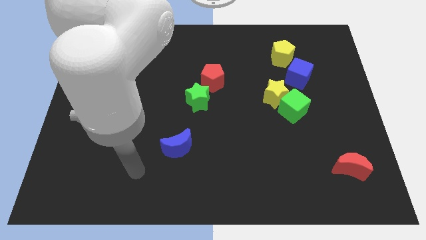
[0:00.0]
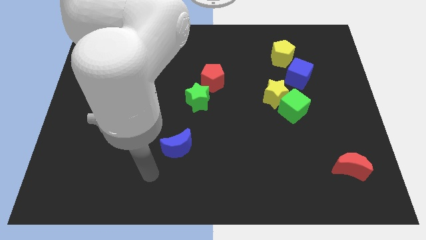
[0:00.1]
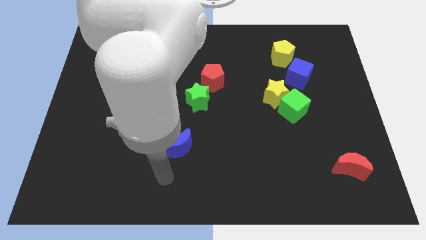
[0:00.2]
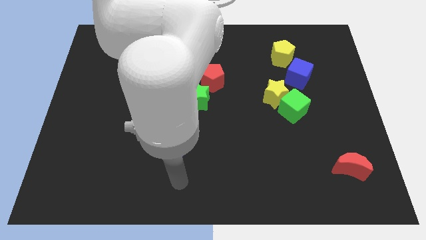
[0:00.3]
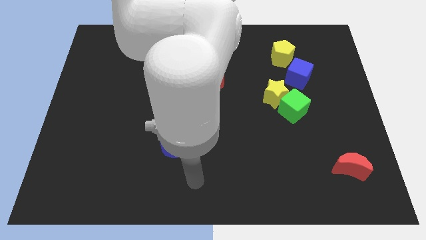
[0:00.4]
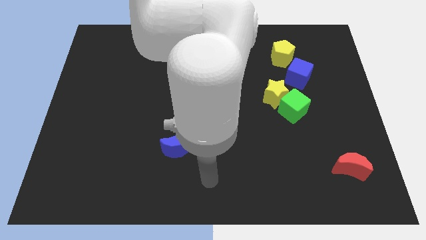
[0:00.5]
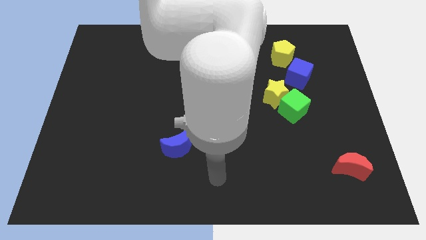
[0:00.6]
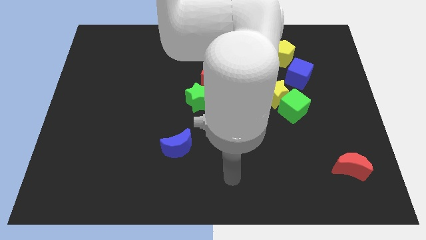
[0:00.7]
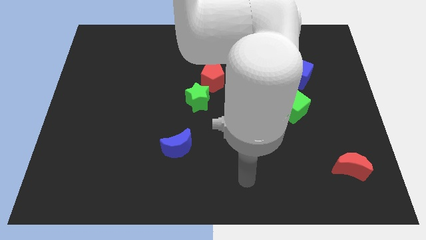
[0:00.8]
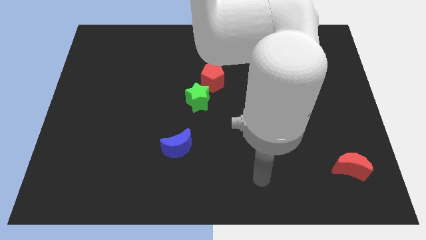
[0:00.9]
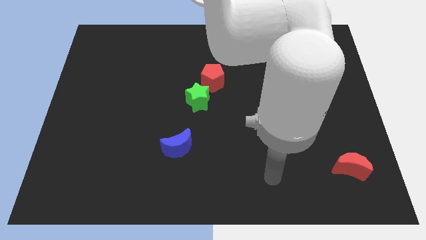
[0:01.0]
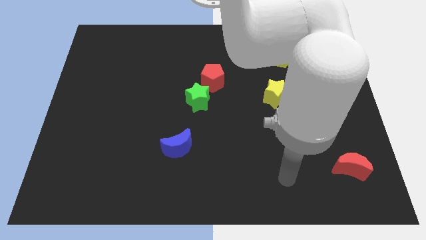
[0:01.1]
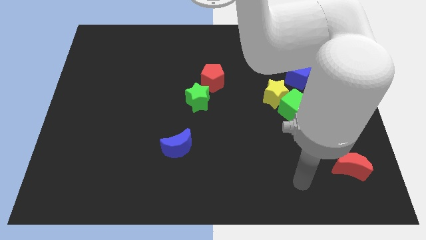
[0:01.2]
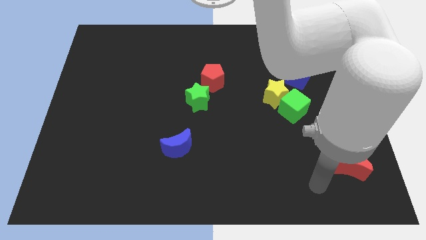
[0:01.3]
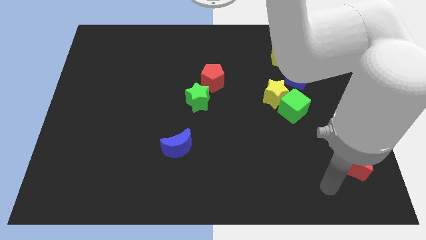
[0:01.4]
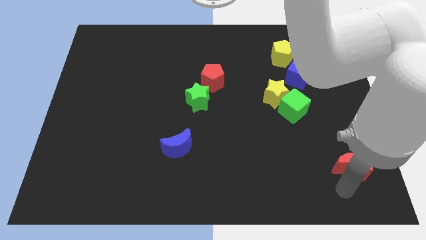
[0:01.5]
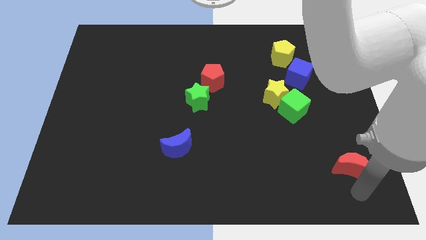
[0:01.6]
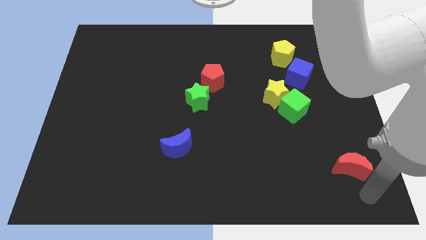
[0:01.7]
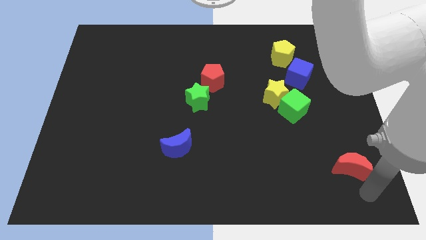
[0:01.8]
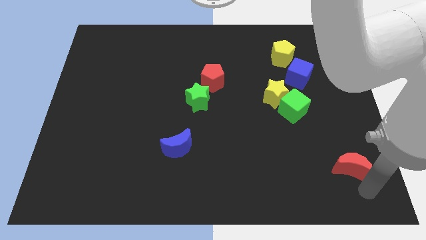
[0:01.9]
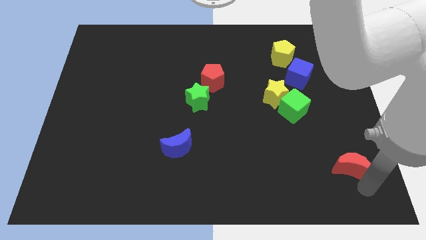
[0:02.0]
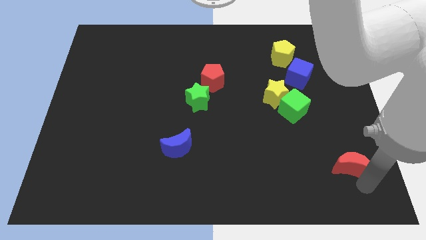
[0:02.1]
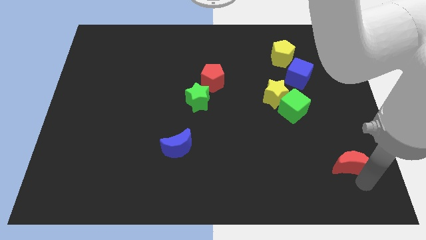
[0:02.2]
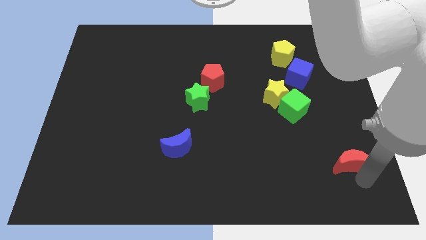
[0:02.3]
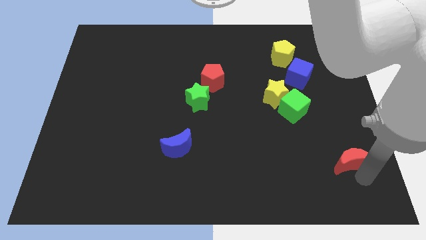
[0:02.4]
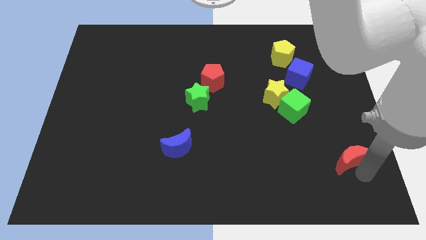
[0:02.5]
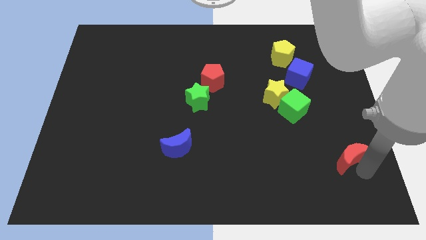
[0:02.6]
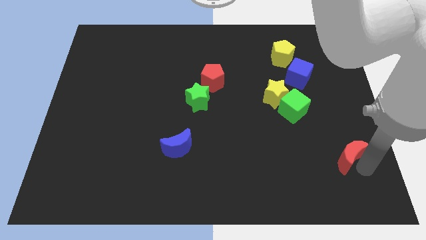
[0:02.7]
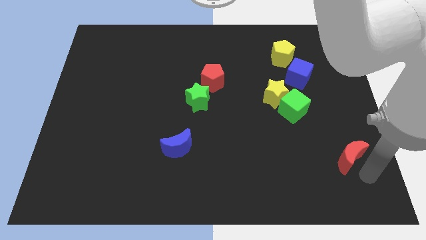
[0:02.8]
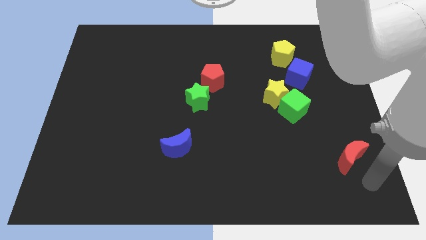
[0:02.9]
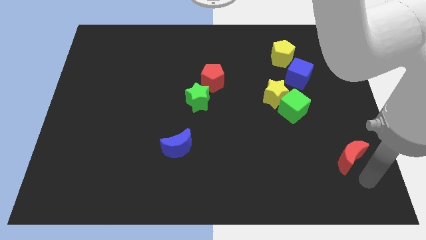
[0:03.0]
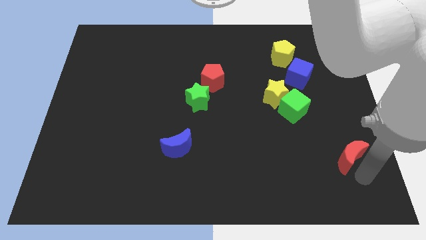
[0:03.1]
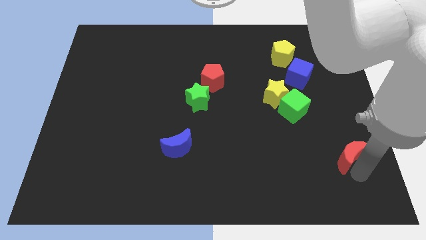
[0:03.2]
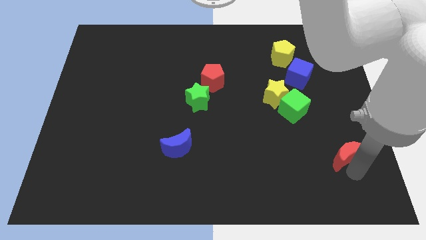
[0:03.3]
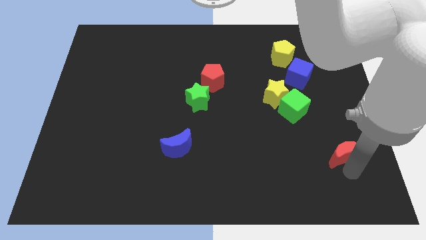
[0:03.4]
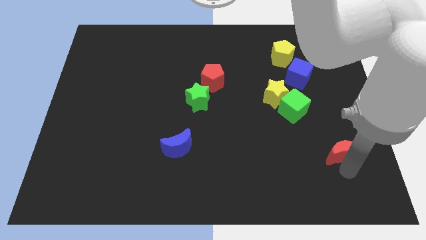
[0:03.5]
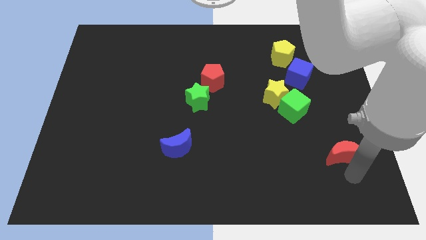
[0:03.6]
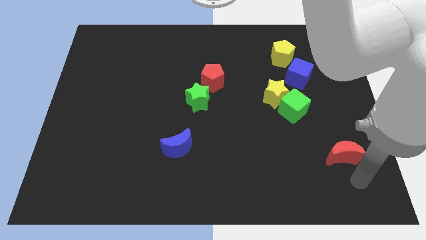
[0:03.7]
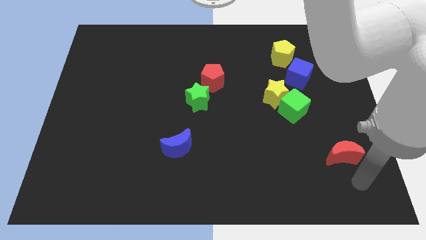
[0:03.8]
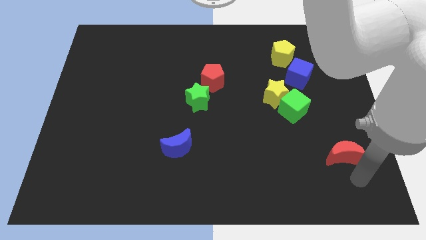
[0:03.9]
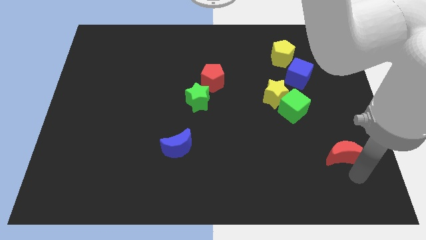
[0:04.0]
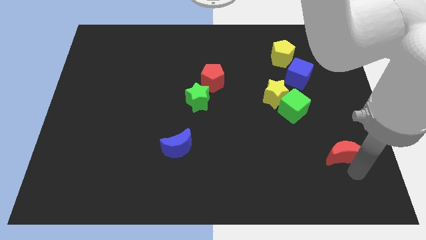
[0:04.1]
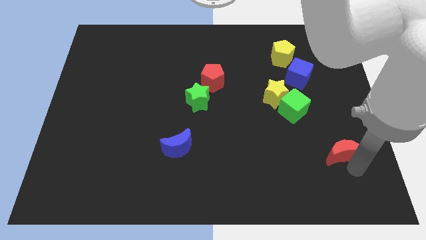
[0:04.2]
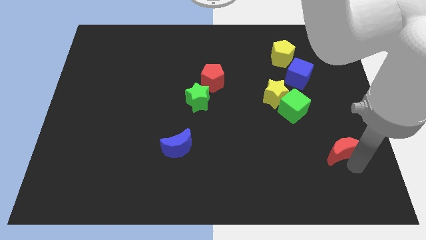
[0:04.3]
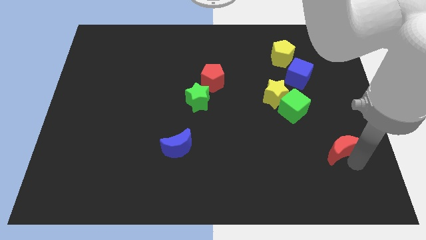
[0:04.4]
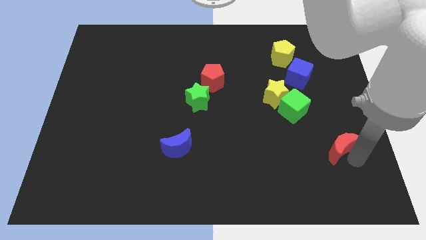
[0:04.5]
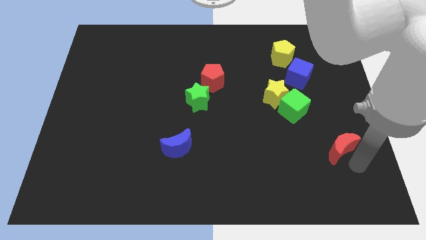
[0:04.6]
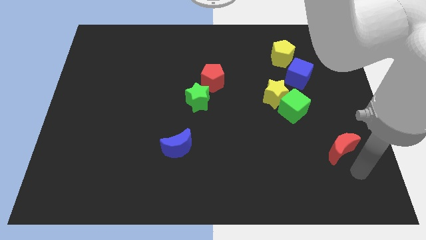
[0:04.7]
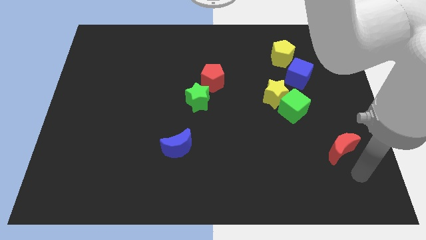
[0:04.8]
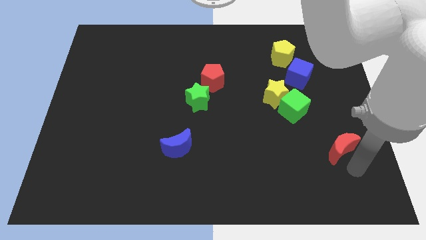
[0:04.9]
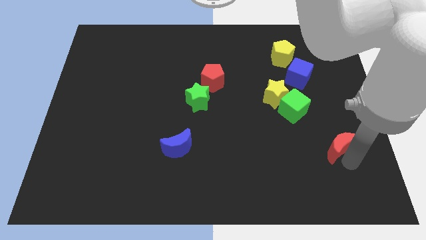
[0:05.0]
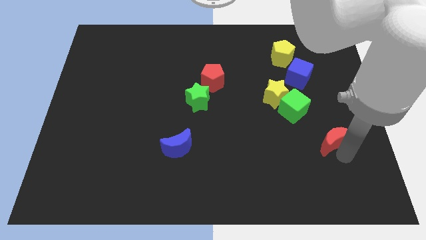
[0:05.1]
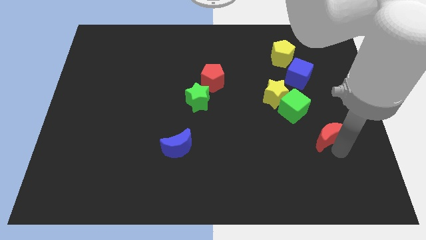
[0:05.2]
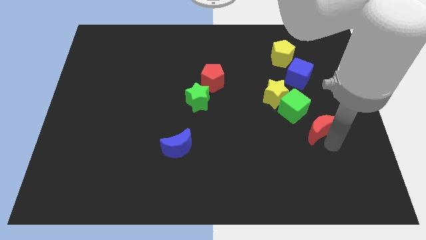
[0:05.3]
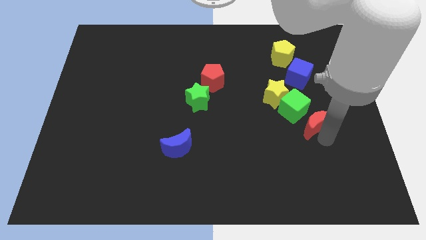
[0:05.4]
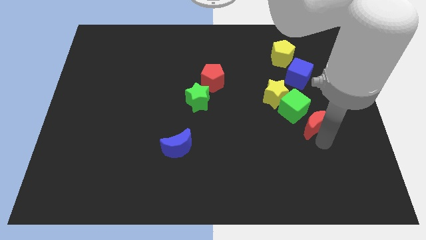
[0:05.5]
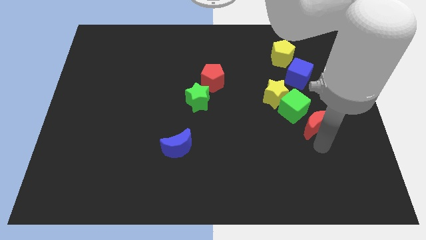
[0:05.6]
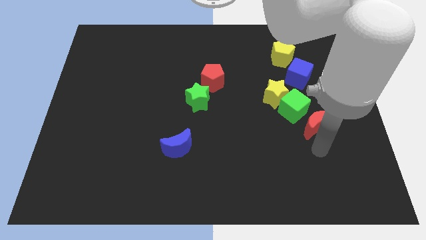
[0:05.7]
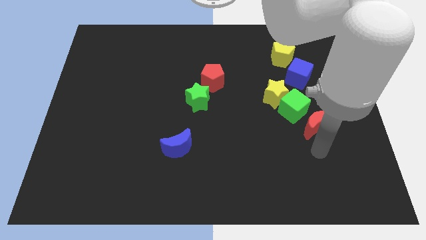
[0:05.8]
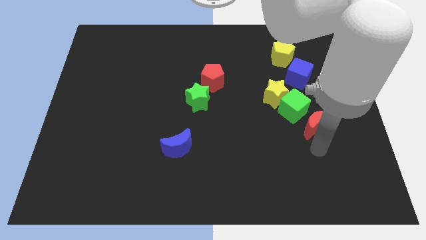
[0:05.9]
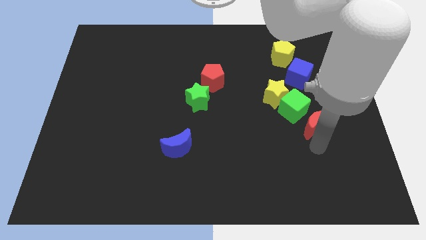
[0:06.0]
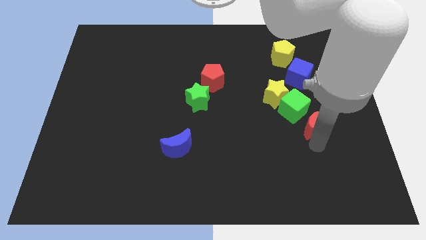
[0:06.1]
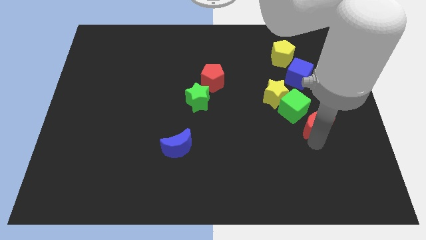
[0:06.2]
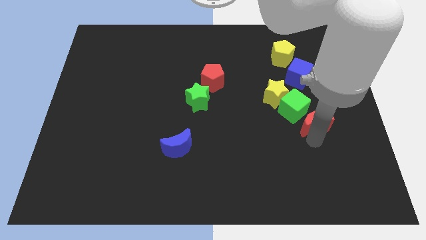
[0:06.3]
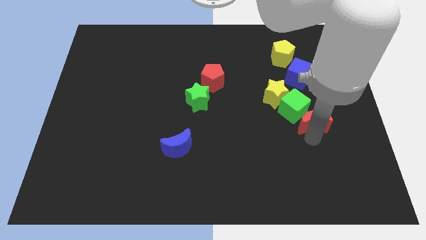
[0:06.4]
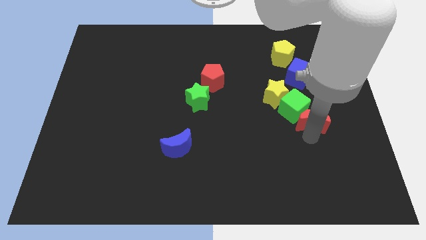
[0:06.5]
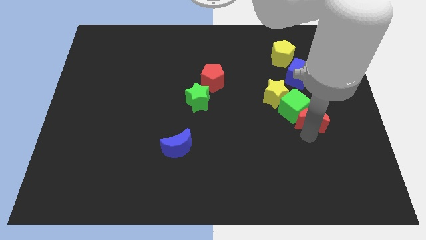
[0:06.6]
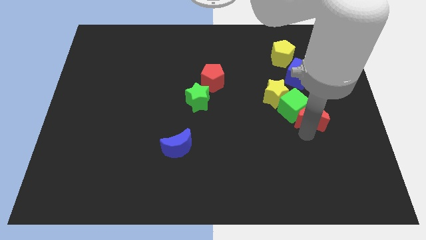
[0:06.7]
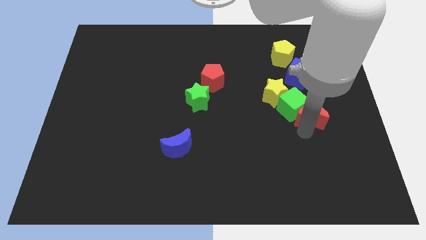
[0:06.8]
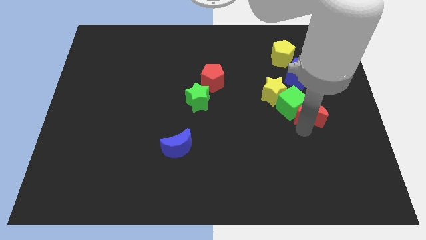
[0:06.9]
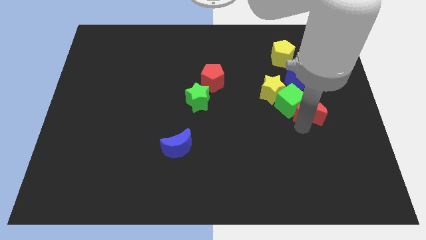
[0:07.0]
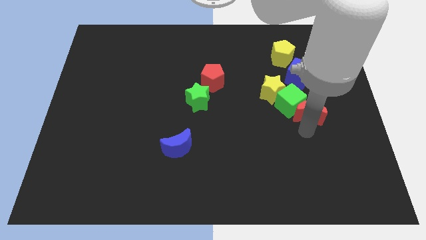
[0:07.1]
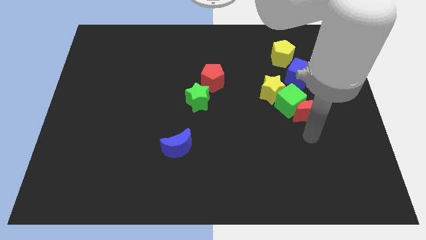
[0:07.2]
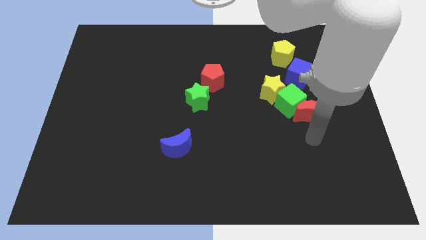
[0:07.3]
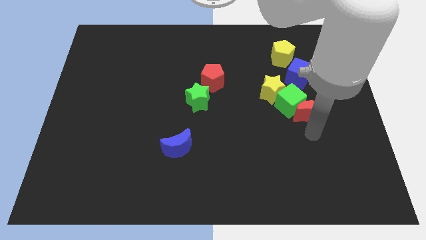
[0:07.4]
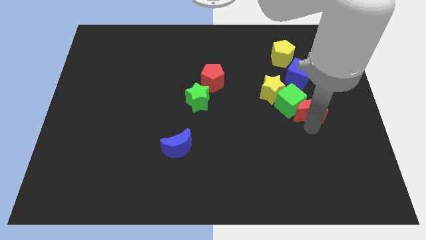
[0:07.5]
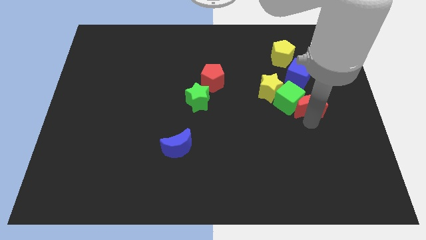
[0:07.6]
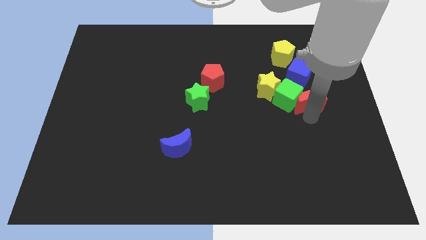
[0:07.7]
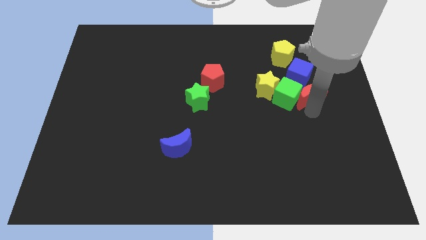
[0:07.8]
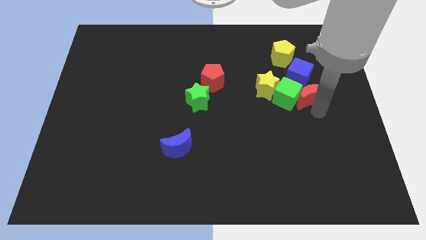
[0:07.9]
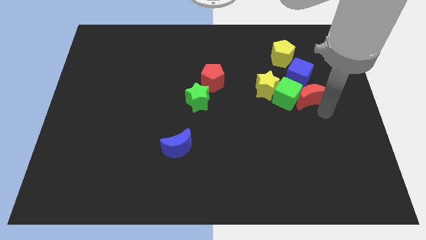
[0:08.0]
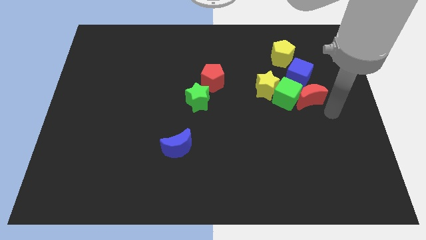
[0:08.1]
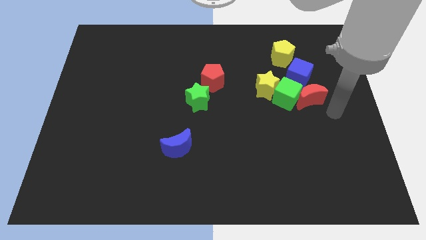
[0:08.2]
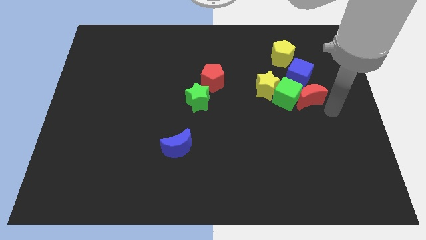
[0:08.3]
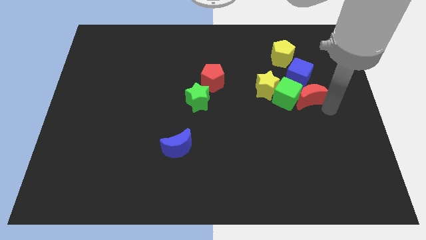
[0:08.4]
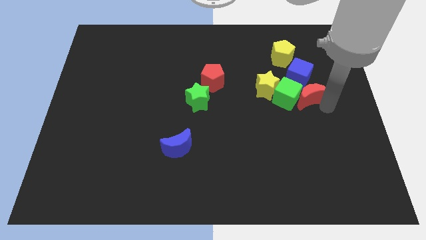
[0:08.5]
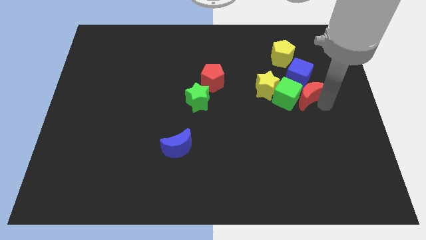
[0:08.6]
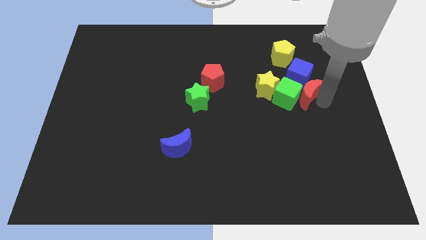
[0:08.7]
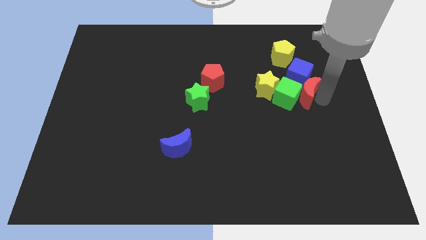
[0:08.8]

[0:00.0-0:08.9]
slide the red moon to the bottom side of the yellow pentagon
